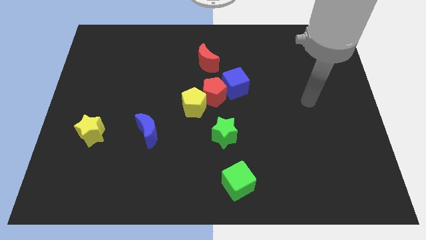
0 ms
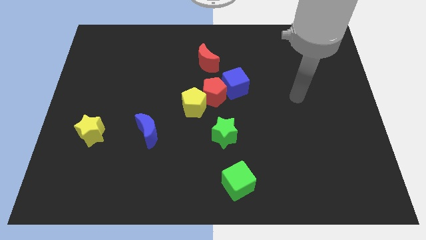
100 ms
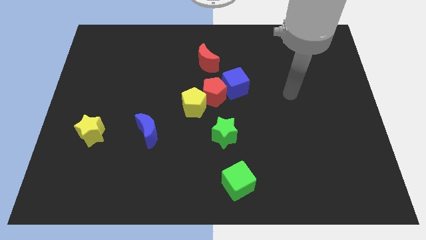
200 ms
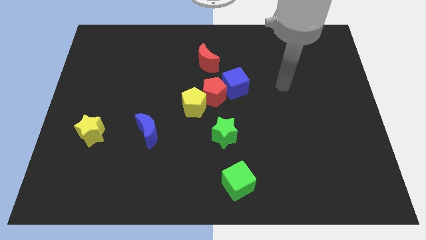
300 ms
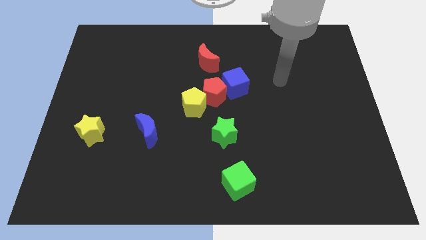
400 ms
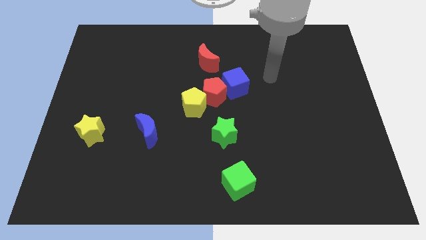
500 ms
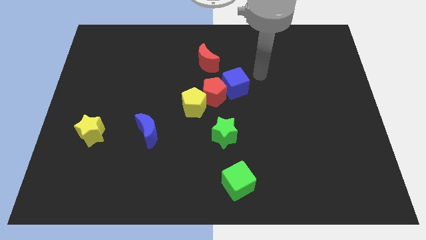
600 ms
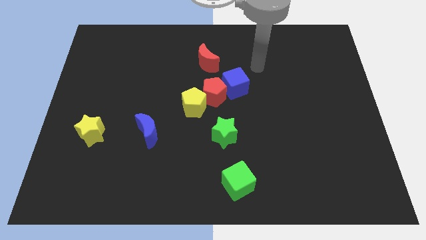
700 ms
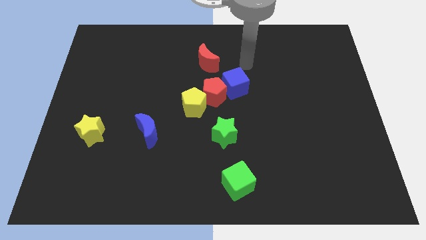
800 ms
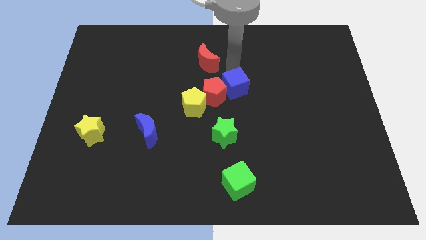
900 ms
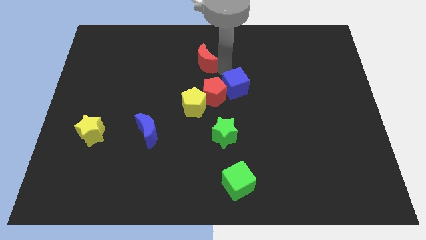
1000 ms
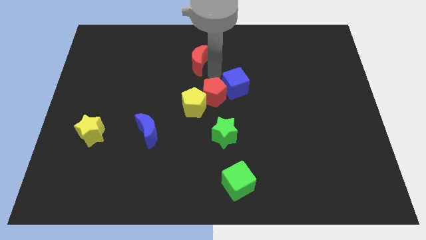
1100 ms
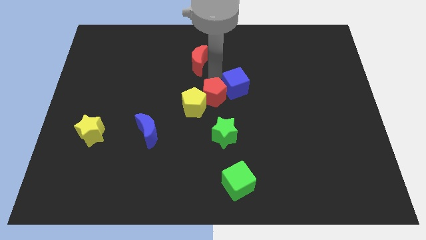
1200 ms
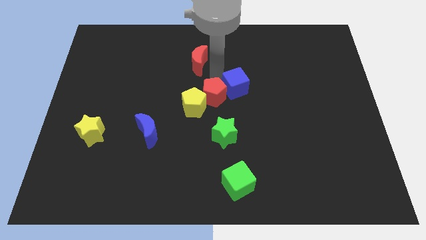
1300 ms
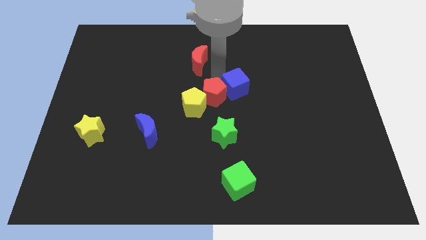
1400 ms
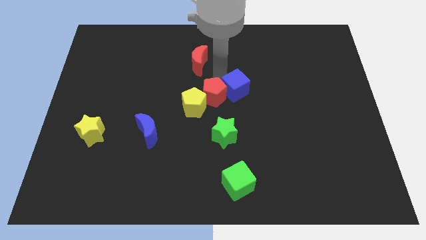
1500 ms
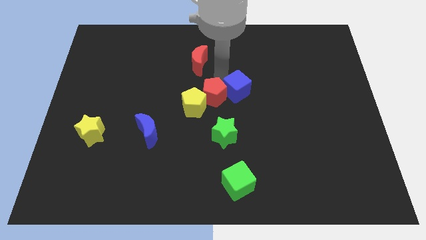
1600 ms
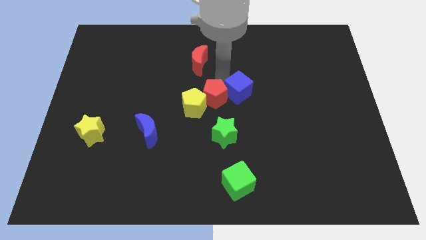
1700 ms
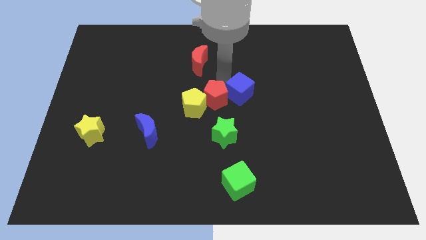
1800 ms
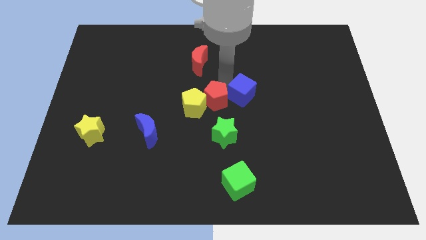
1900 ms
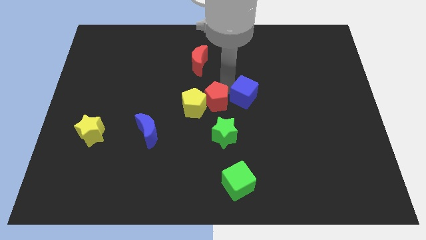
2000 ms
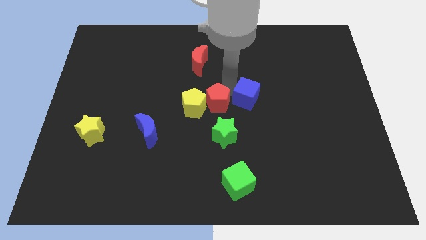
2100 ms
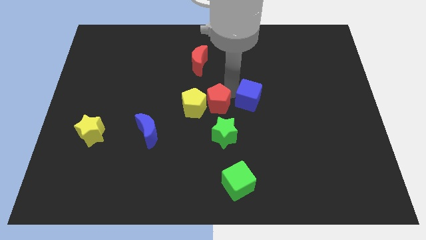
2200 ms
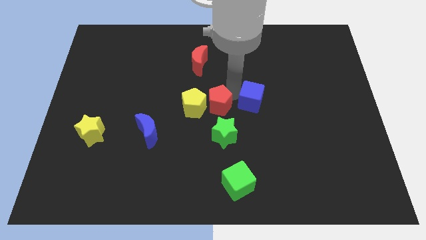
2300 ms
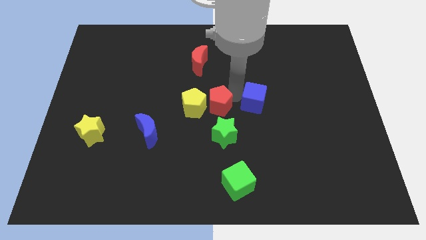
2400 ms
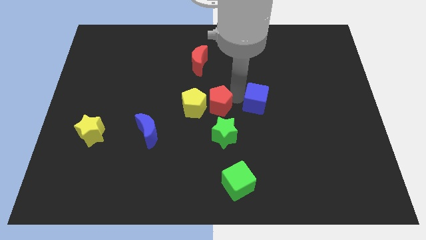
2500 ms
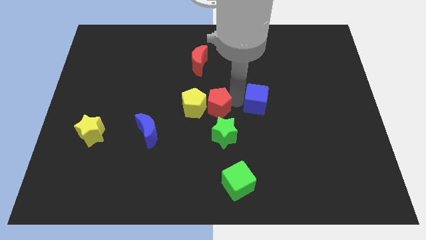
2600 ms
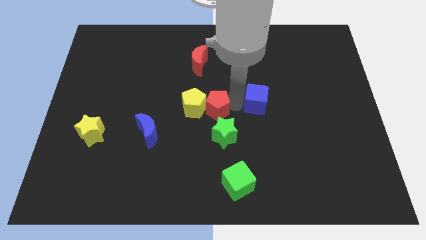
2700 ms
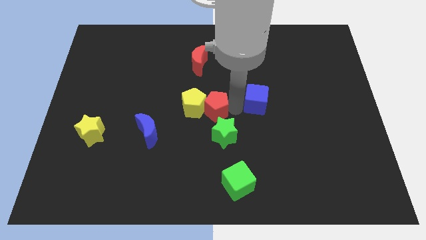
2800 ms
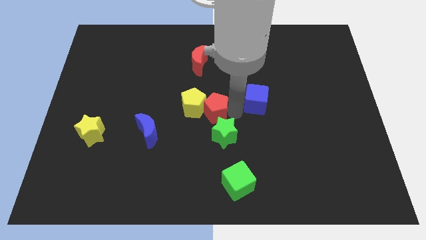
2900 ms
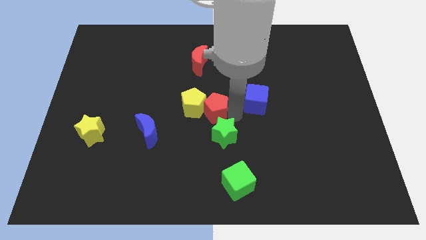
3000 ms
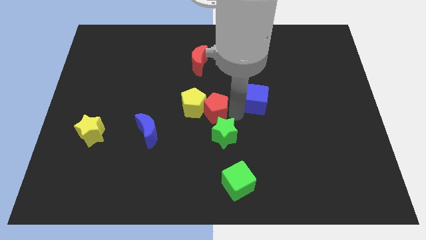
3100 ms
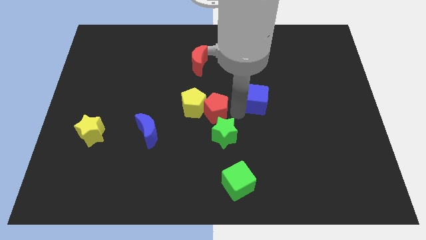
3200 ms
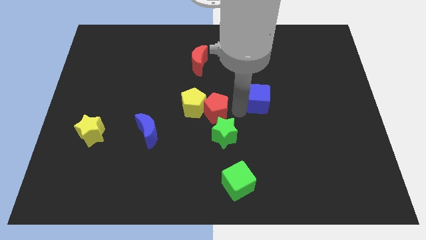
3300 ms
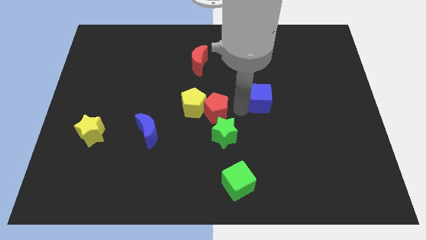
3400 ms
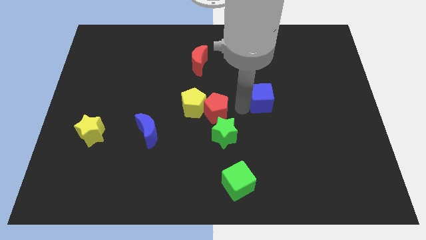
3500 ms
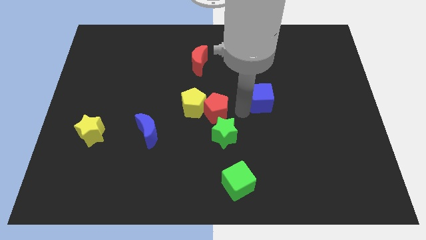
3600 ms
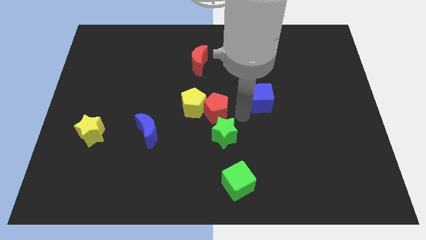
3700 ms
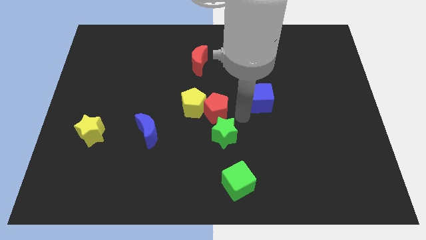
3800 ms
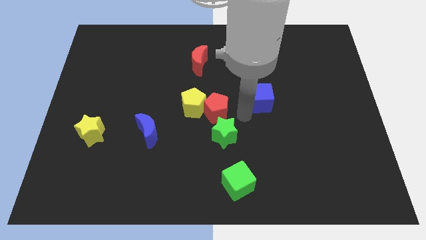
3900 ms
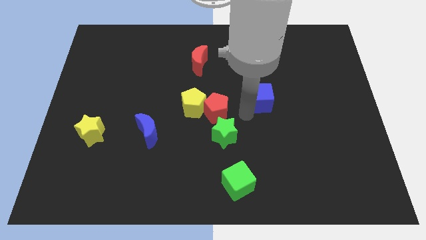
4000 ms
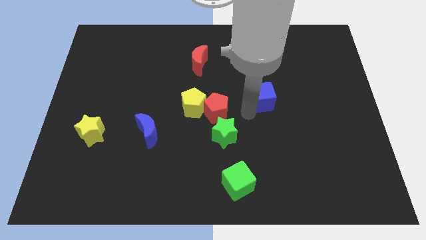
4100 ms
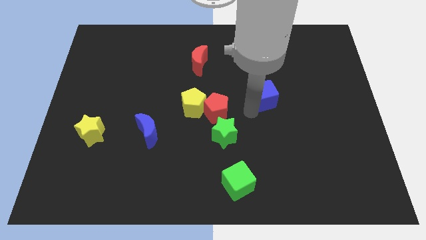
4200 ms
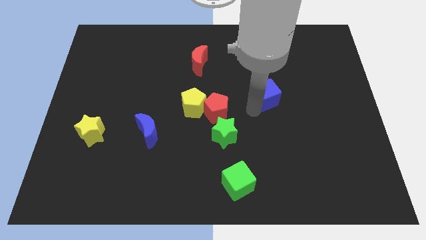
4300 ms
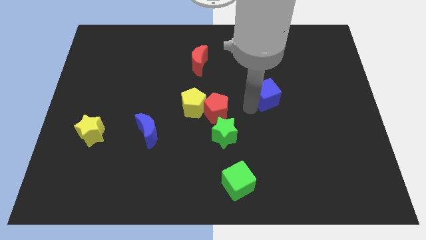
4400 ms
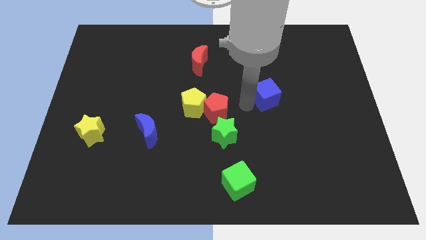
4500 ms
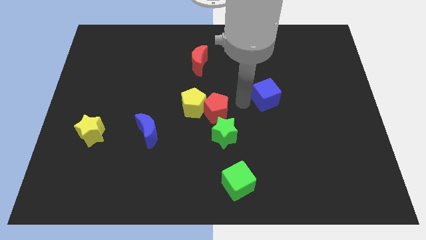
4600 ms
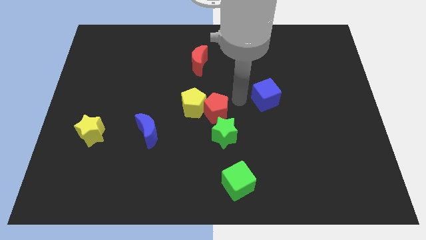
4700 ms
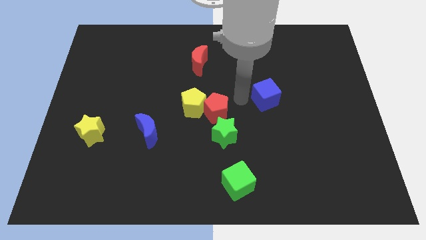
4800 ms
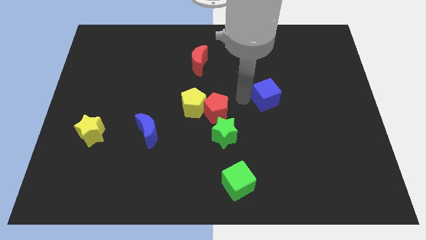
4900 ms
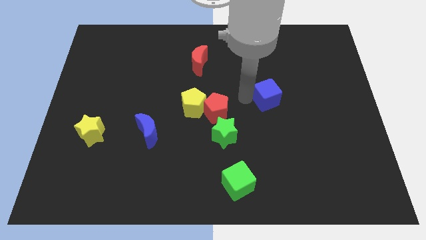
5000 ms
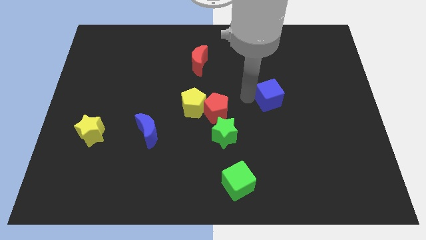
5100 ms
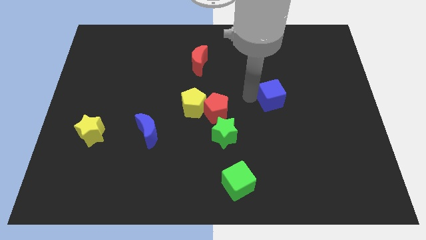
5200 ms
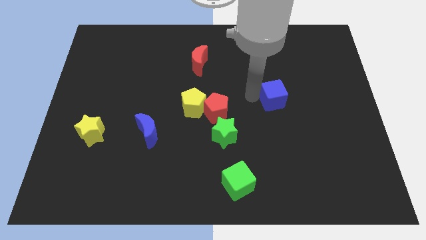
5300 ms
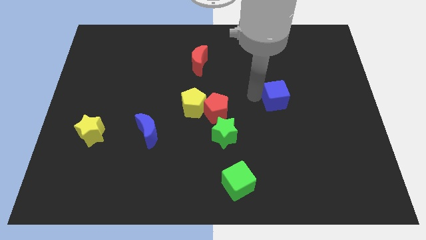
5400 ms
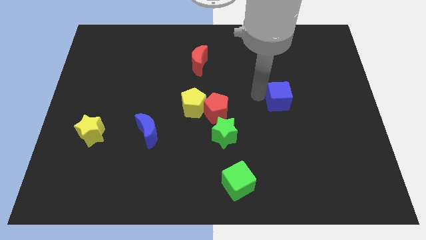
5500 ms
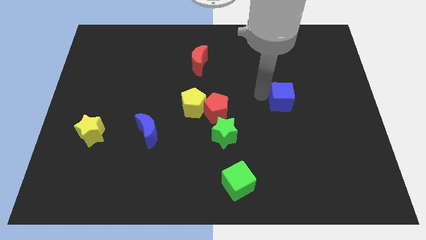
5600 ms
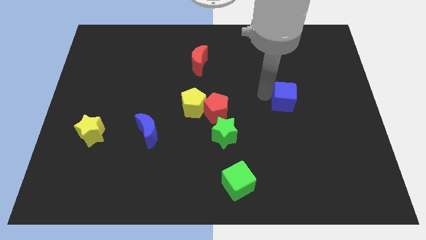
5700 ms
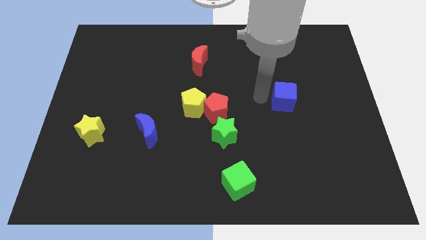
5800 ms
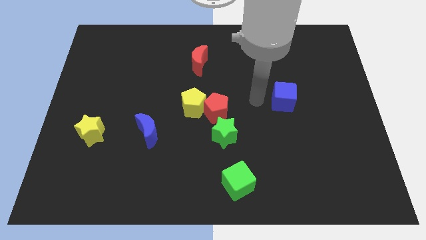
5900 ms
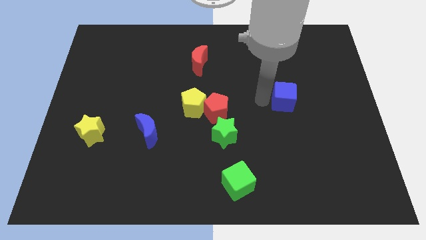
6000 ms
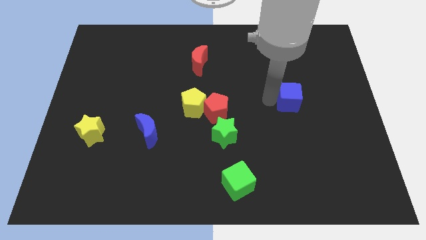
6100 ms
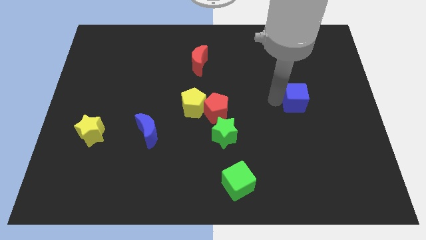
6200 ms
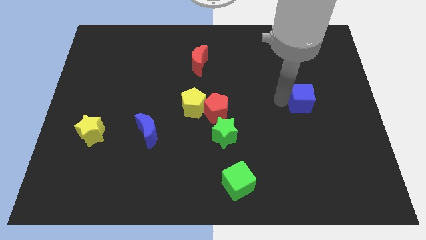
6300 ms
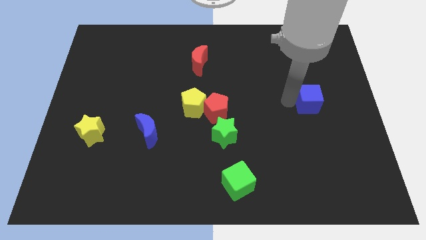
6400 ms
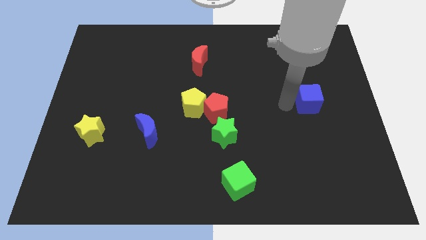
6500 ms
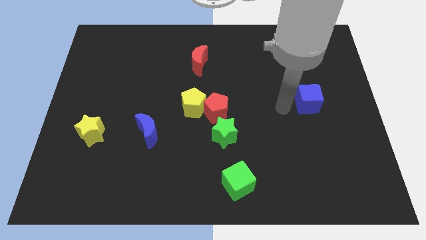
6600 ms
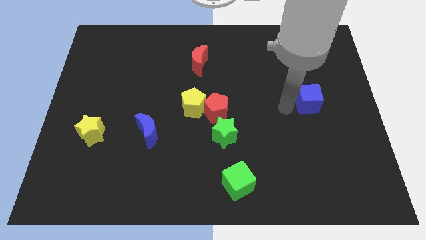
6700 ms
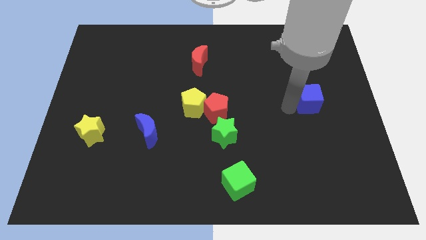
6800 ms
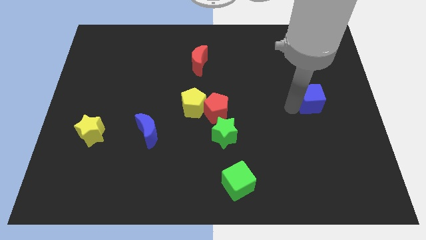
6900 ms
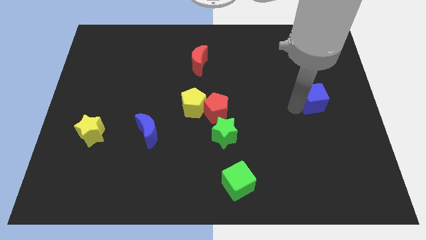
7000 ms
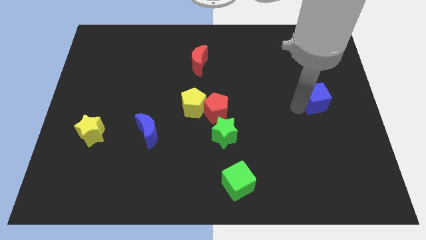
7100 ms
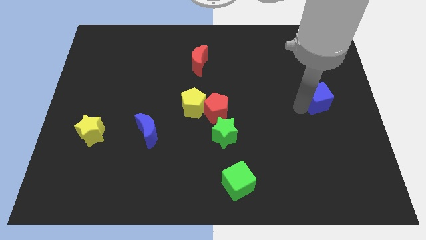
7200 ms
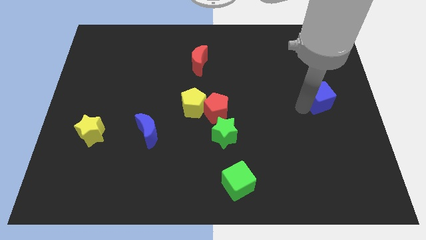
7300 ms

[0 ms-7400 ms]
put the blue cube to the right side of the board

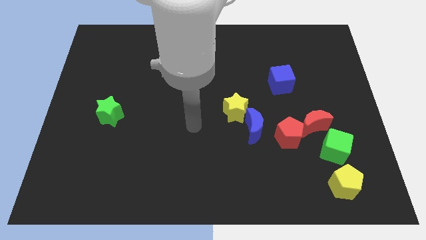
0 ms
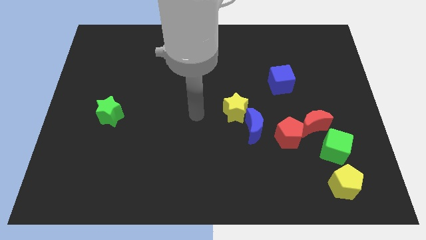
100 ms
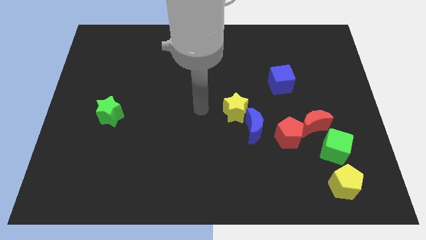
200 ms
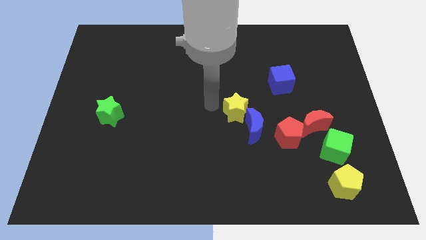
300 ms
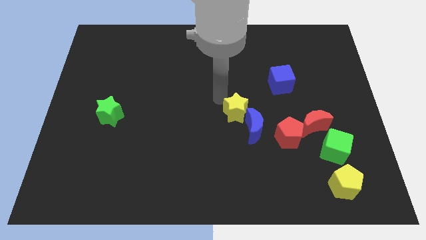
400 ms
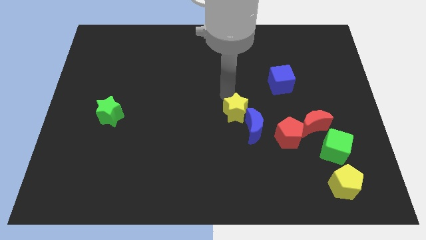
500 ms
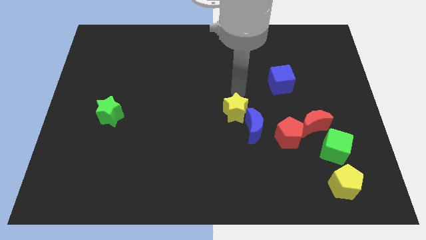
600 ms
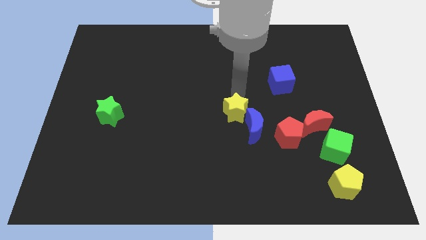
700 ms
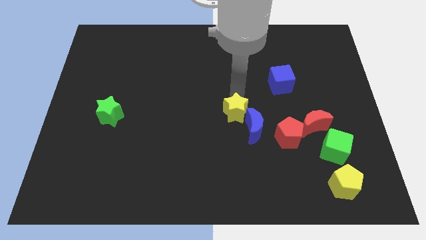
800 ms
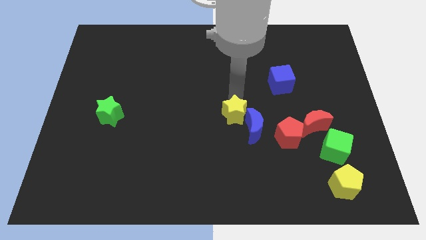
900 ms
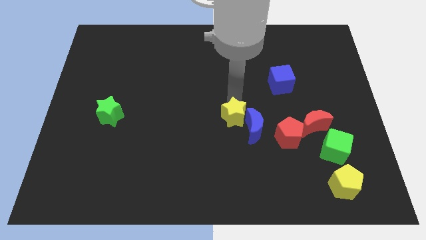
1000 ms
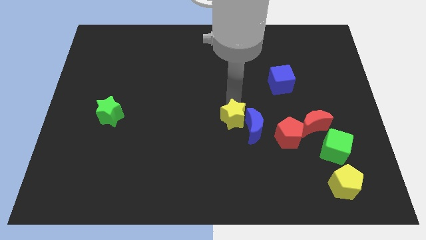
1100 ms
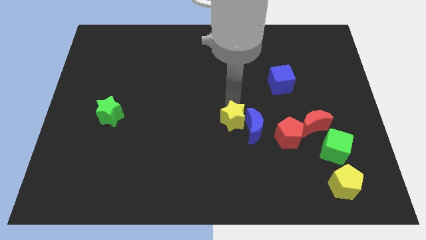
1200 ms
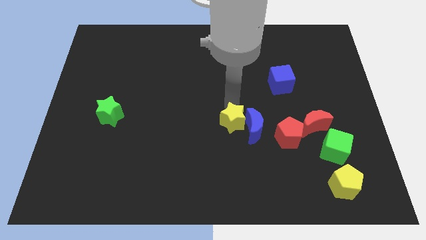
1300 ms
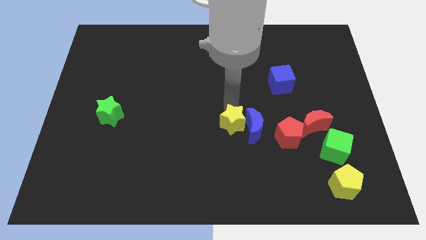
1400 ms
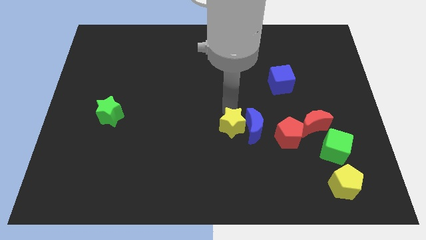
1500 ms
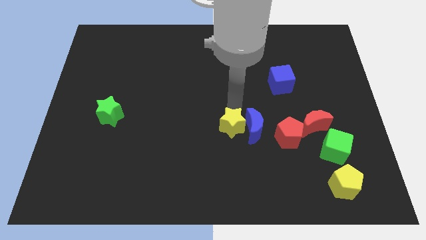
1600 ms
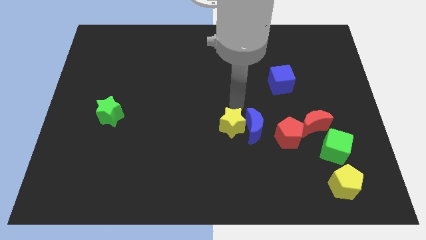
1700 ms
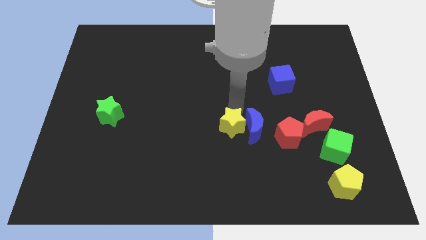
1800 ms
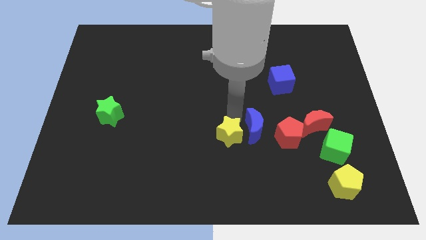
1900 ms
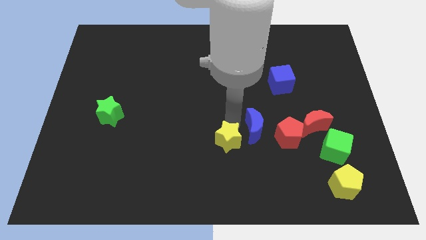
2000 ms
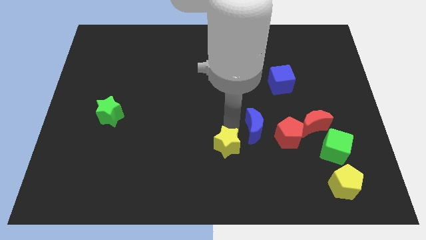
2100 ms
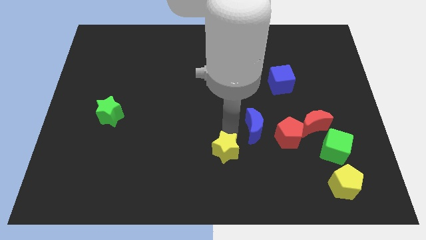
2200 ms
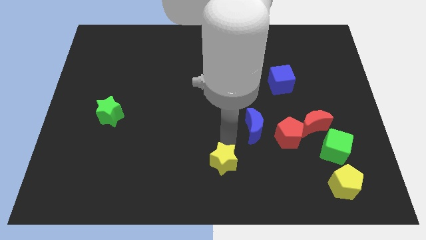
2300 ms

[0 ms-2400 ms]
push the yellow star to the bottom side
